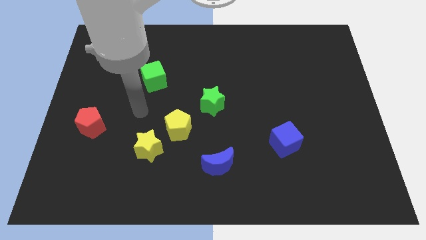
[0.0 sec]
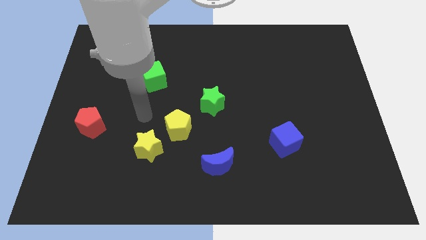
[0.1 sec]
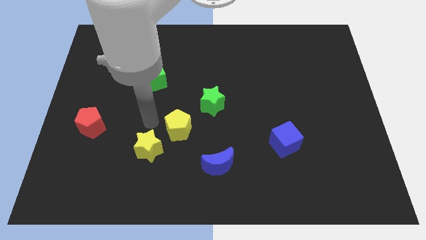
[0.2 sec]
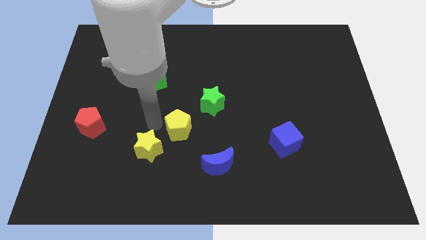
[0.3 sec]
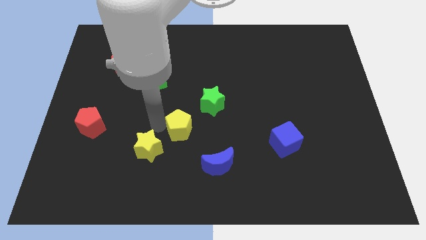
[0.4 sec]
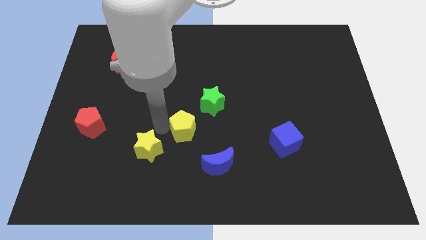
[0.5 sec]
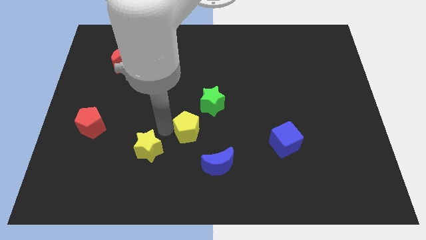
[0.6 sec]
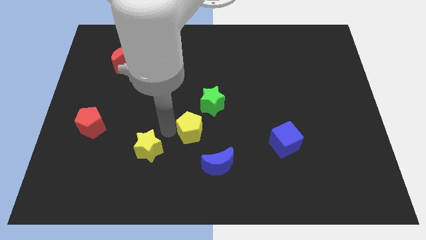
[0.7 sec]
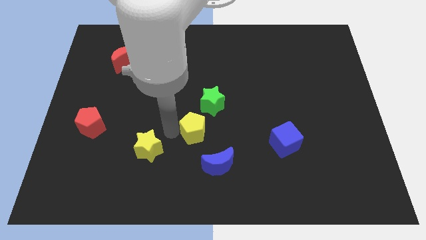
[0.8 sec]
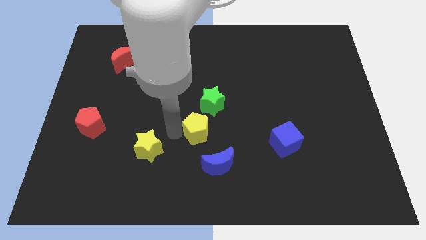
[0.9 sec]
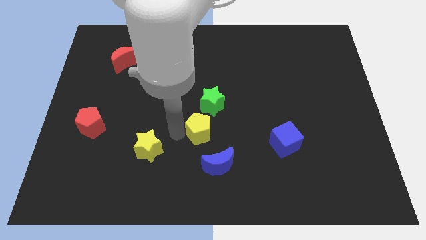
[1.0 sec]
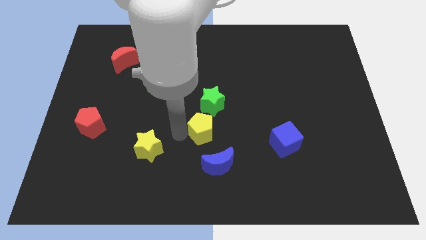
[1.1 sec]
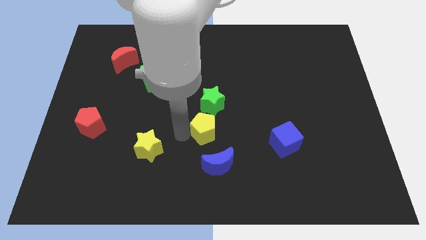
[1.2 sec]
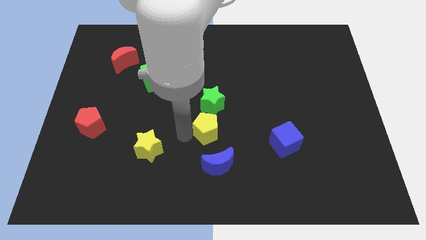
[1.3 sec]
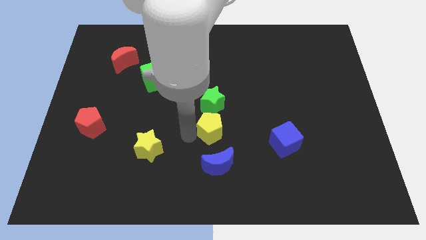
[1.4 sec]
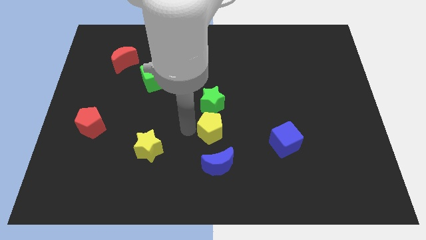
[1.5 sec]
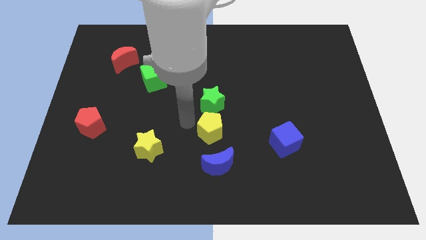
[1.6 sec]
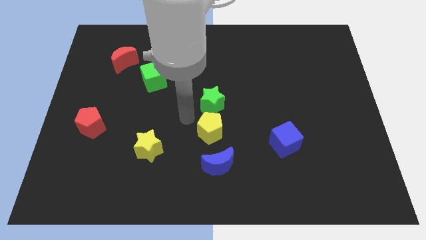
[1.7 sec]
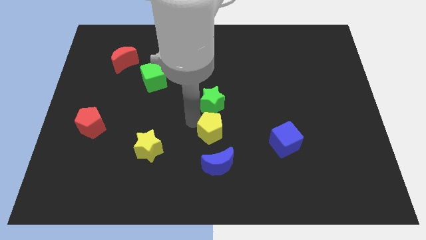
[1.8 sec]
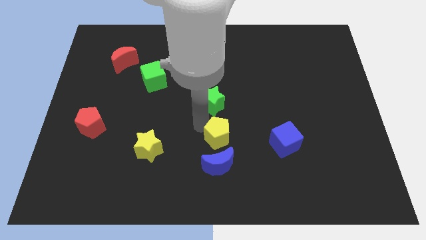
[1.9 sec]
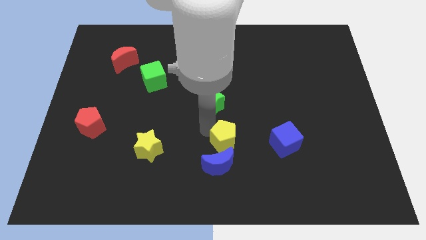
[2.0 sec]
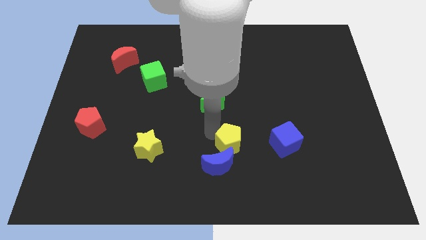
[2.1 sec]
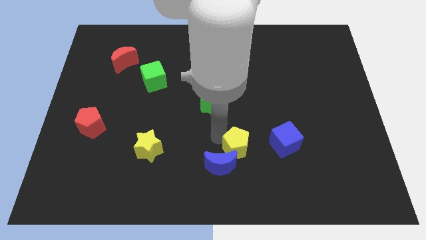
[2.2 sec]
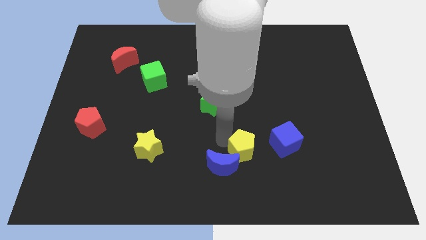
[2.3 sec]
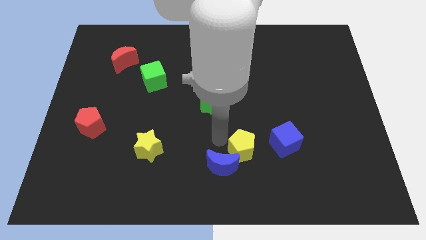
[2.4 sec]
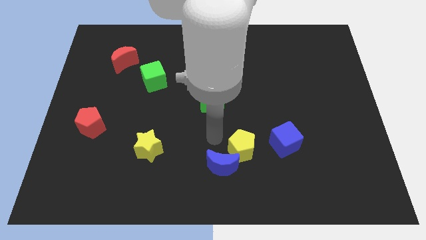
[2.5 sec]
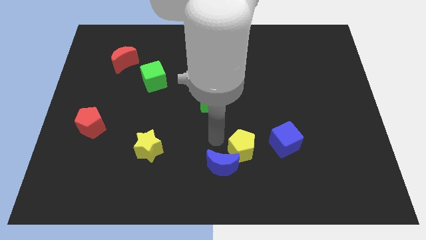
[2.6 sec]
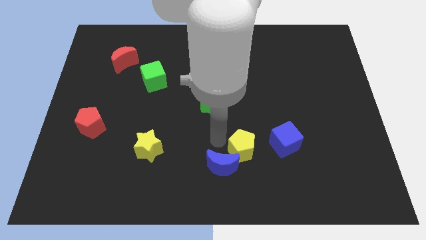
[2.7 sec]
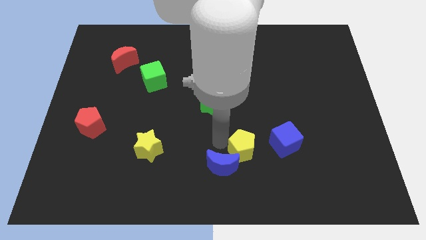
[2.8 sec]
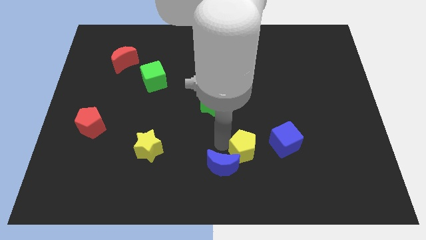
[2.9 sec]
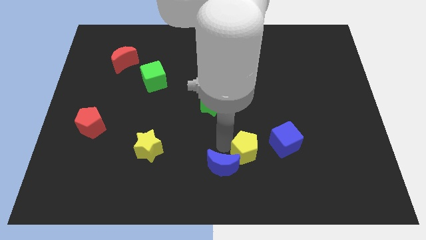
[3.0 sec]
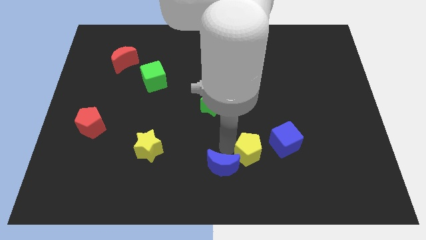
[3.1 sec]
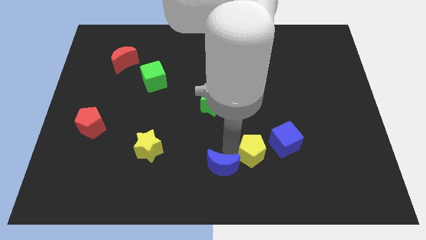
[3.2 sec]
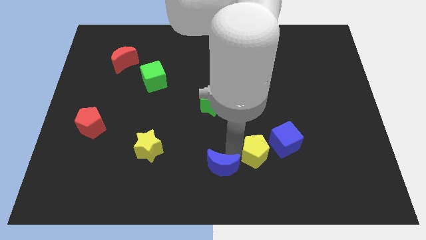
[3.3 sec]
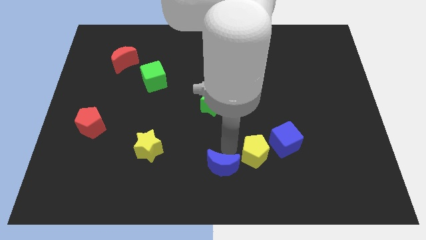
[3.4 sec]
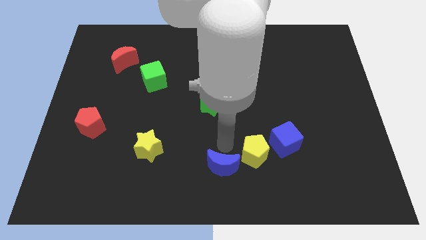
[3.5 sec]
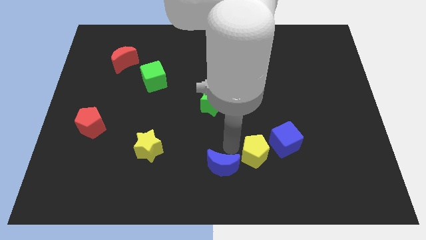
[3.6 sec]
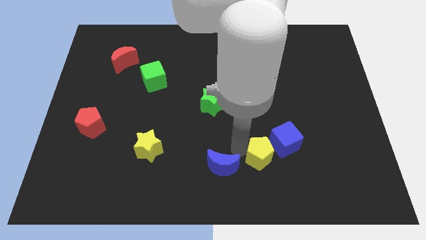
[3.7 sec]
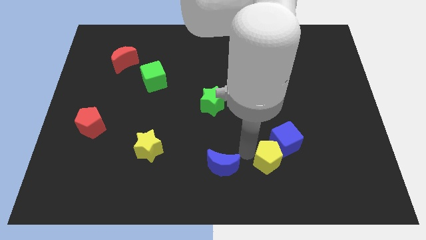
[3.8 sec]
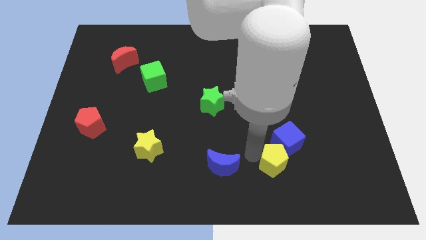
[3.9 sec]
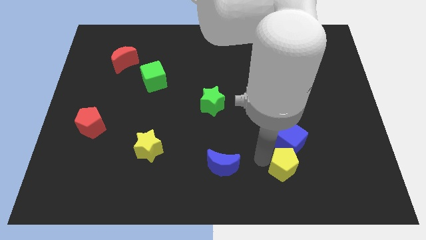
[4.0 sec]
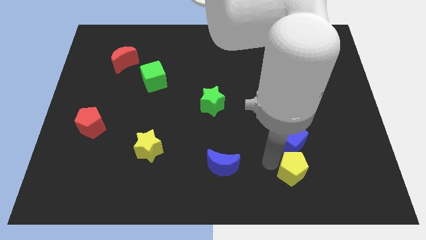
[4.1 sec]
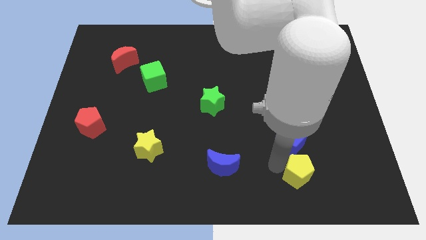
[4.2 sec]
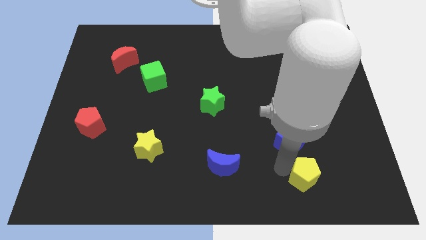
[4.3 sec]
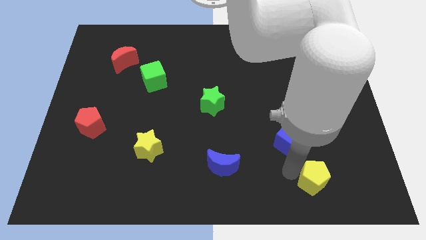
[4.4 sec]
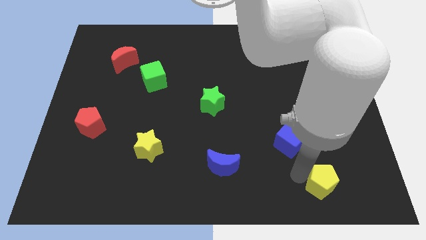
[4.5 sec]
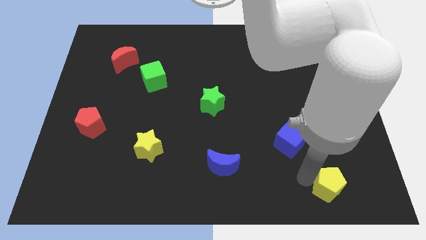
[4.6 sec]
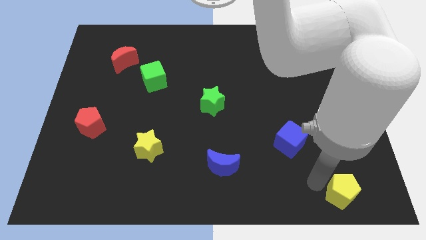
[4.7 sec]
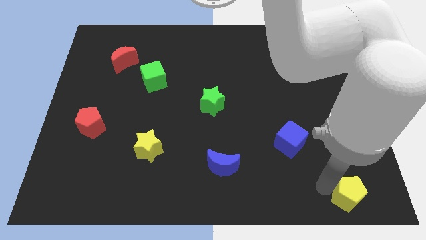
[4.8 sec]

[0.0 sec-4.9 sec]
push the yellow pentagon to the bottom right of the board

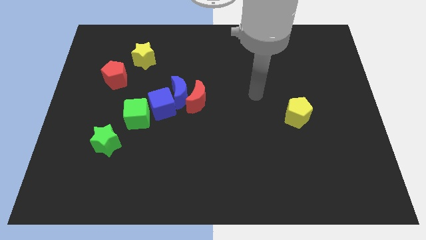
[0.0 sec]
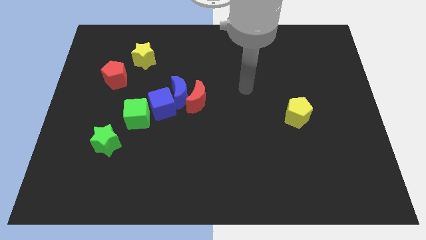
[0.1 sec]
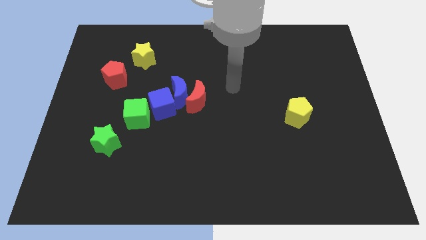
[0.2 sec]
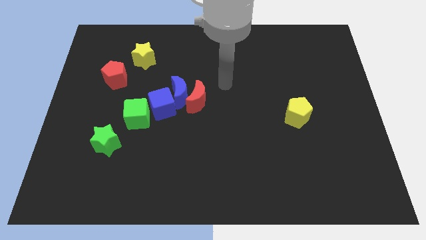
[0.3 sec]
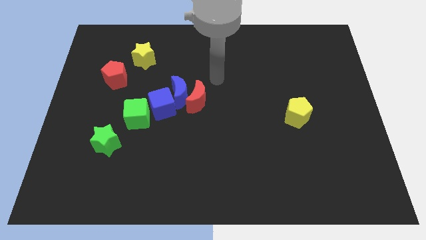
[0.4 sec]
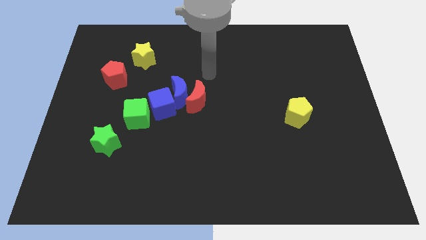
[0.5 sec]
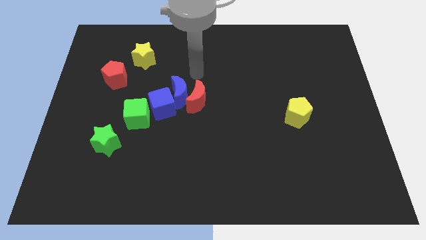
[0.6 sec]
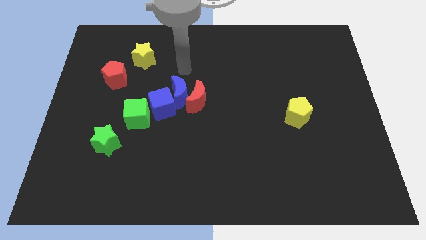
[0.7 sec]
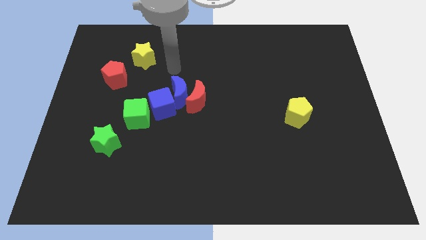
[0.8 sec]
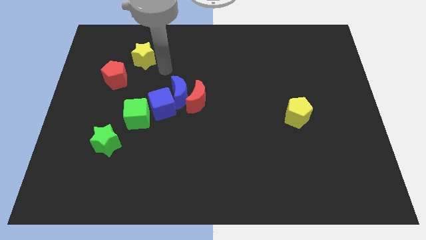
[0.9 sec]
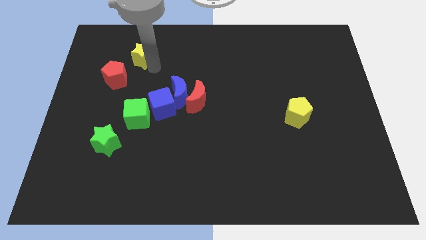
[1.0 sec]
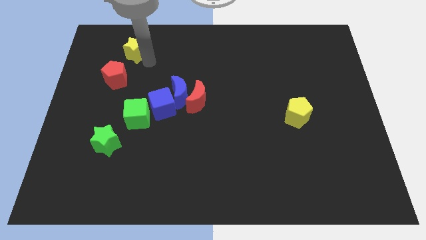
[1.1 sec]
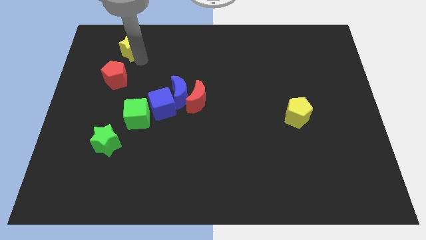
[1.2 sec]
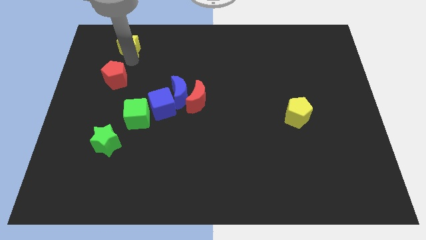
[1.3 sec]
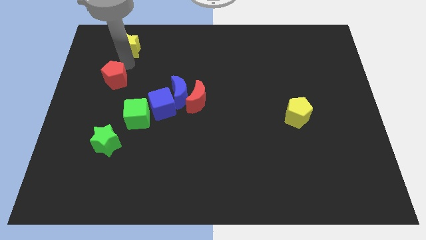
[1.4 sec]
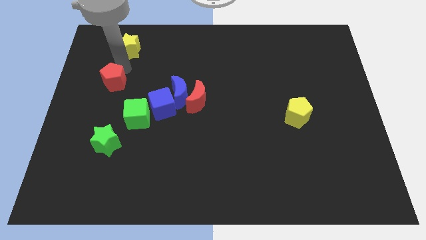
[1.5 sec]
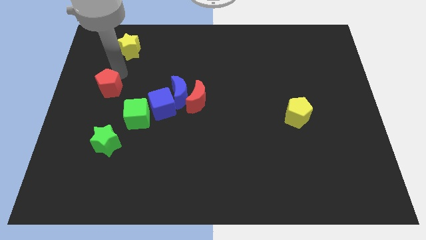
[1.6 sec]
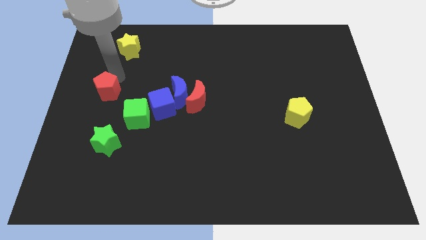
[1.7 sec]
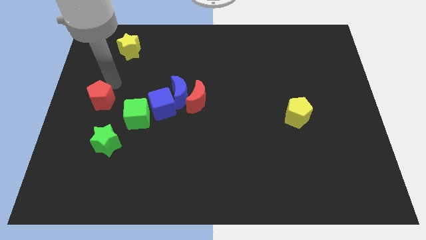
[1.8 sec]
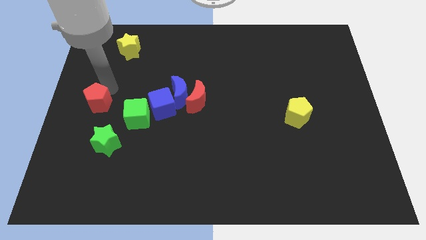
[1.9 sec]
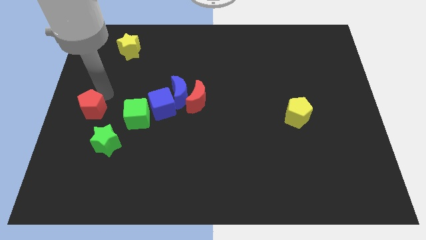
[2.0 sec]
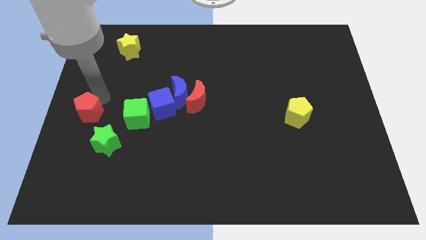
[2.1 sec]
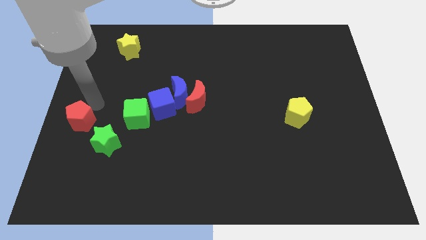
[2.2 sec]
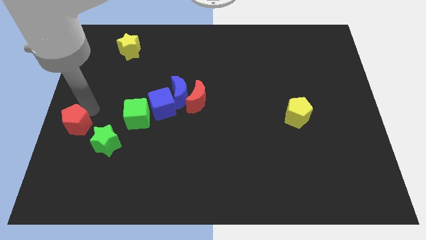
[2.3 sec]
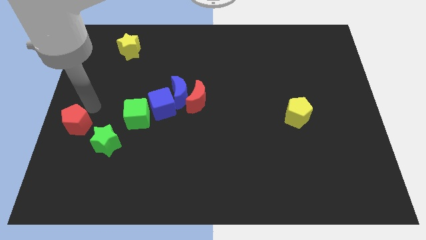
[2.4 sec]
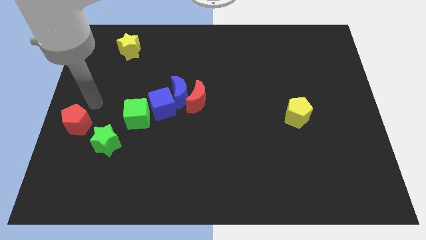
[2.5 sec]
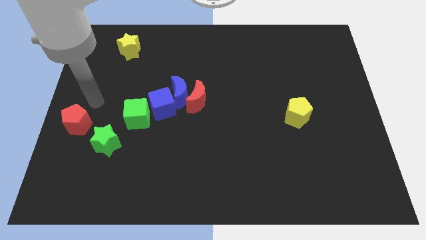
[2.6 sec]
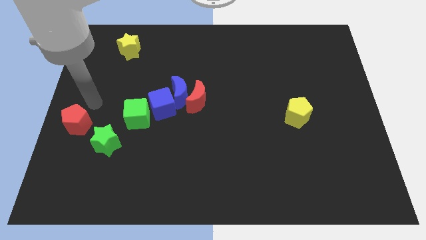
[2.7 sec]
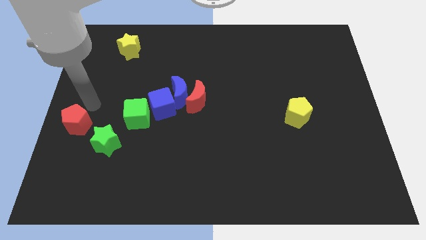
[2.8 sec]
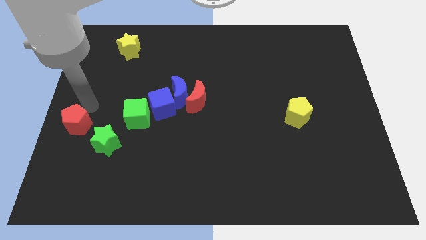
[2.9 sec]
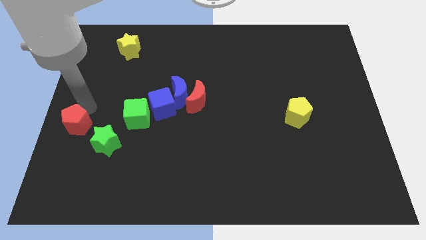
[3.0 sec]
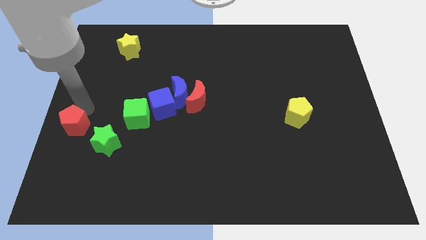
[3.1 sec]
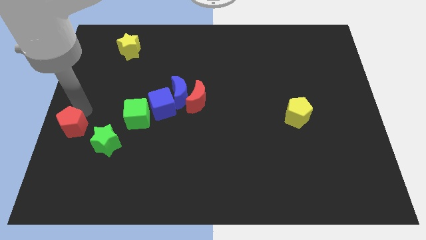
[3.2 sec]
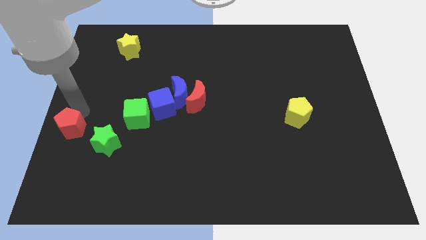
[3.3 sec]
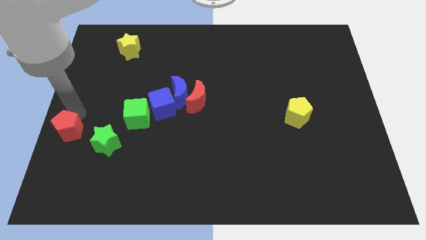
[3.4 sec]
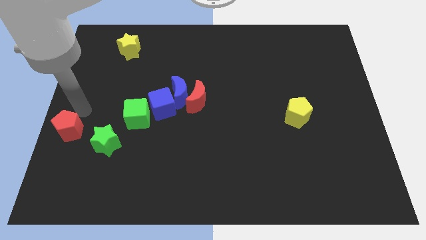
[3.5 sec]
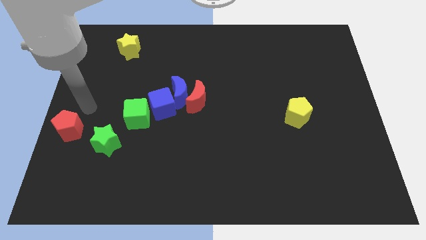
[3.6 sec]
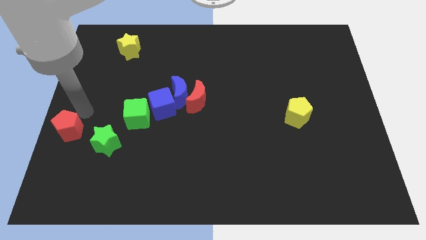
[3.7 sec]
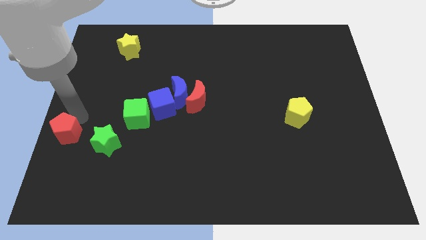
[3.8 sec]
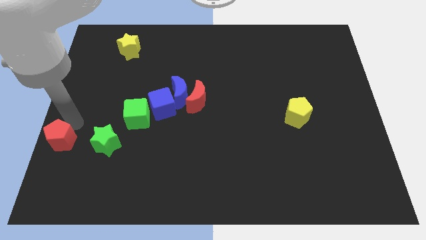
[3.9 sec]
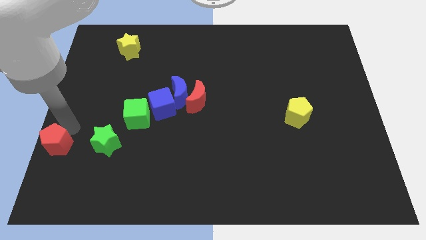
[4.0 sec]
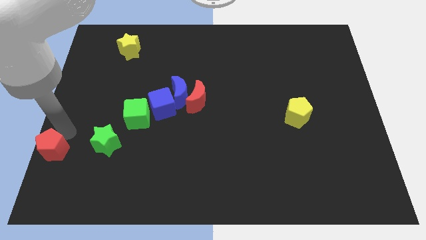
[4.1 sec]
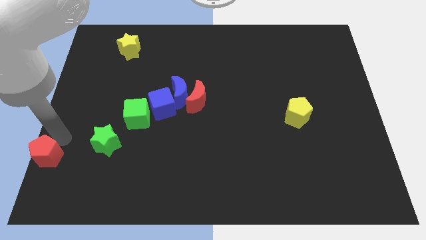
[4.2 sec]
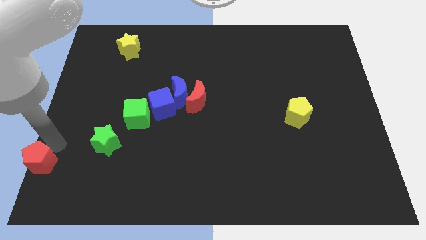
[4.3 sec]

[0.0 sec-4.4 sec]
put the red pentagon to the bottom left
